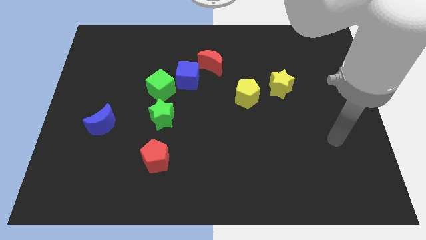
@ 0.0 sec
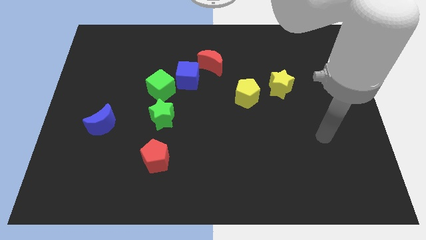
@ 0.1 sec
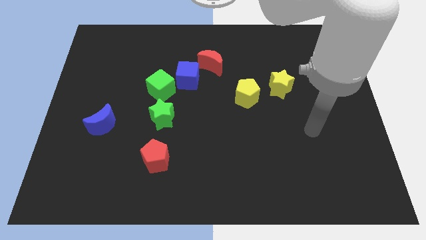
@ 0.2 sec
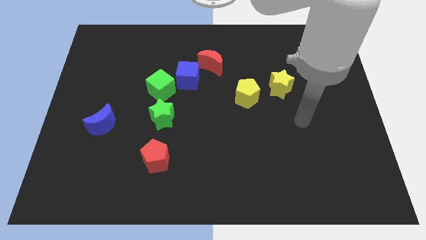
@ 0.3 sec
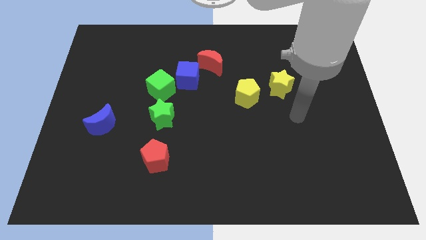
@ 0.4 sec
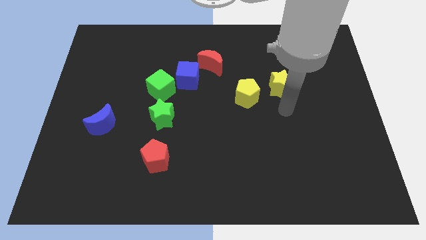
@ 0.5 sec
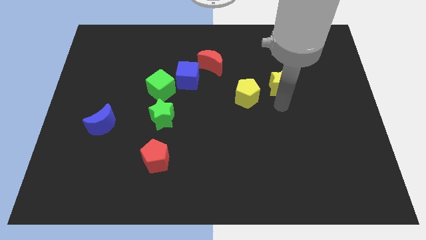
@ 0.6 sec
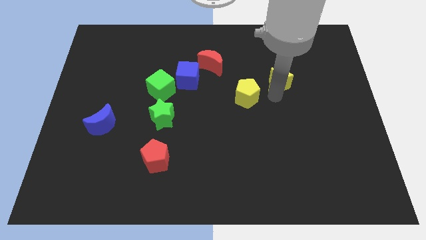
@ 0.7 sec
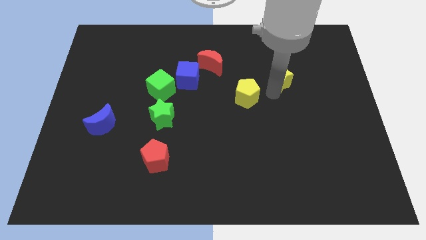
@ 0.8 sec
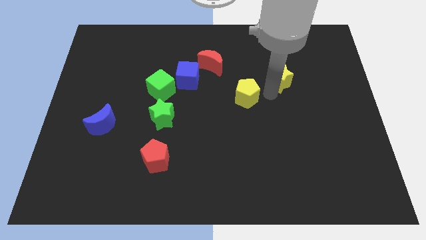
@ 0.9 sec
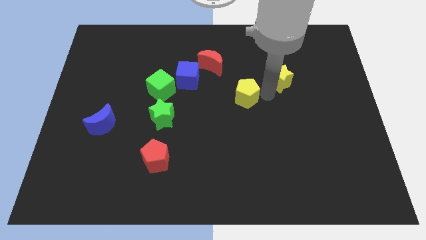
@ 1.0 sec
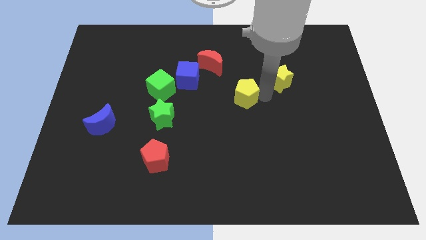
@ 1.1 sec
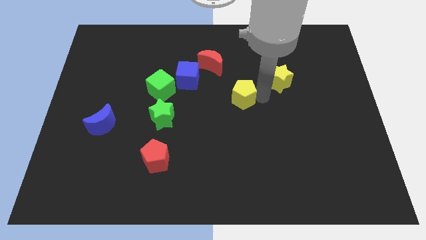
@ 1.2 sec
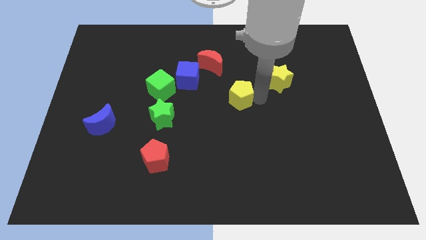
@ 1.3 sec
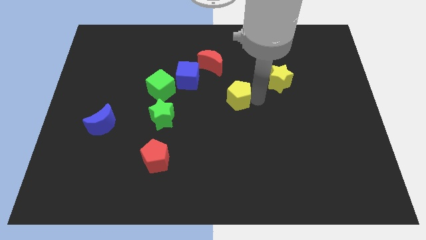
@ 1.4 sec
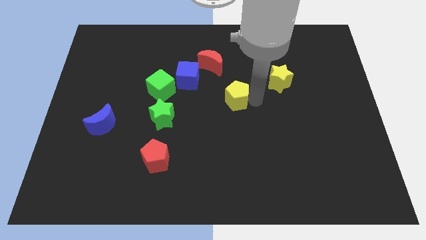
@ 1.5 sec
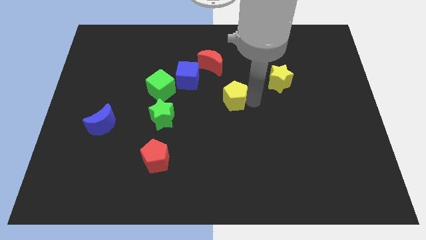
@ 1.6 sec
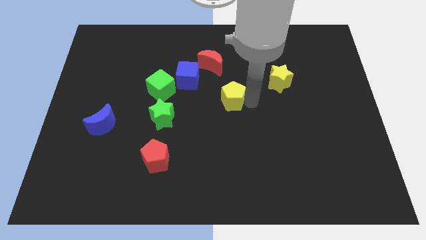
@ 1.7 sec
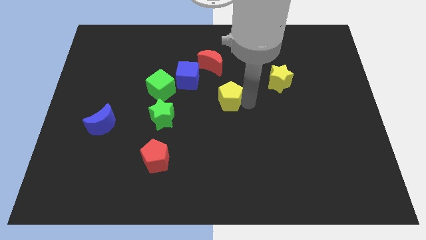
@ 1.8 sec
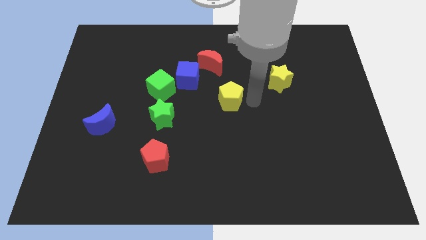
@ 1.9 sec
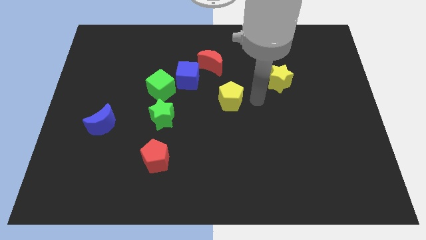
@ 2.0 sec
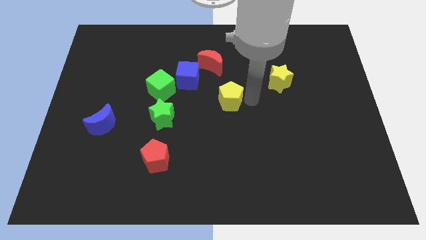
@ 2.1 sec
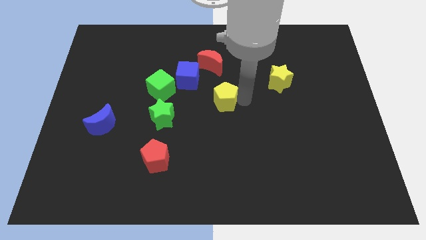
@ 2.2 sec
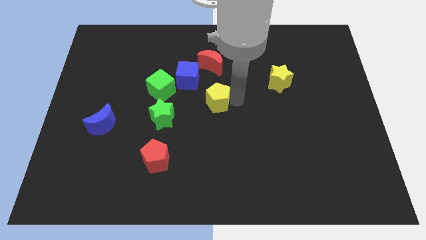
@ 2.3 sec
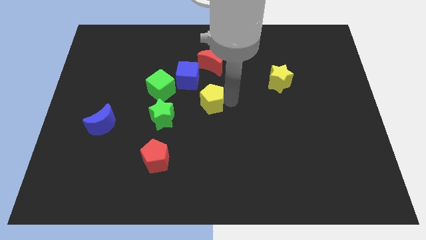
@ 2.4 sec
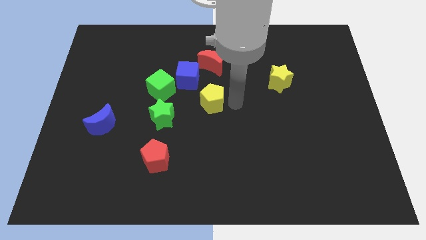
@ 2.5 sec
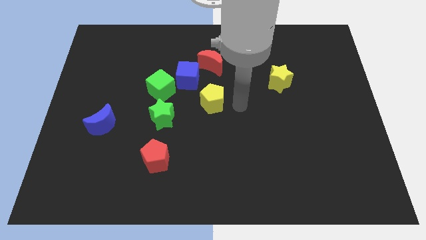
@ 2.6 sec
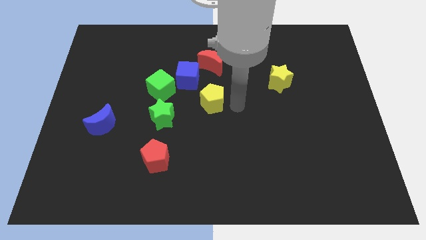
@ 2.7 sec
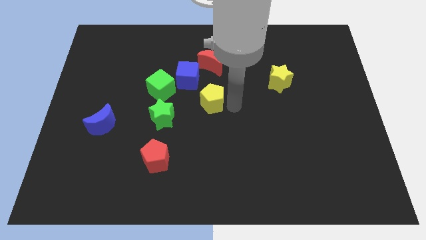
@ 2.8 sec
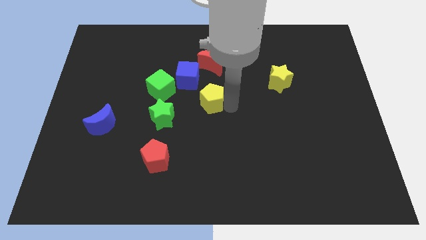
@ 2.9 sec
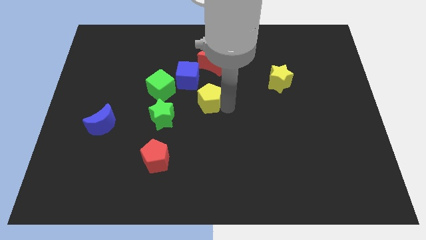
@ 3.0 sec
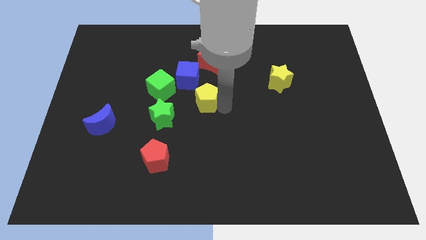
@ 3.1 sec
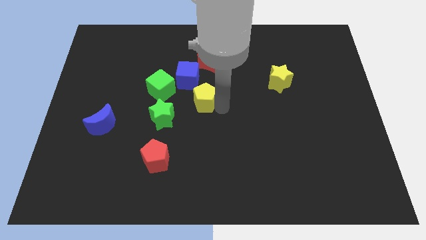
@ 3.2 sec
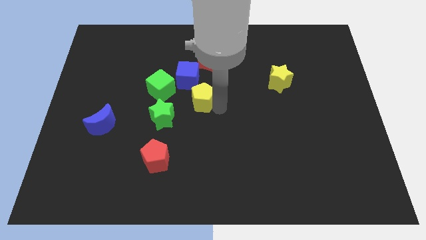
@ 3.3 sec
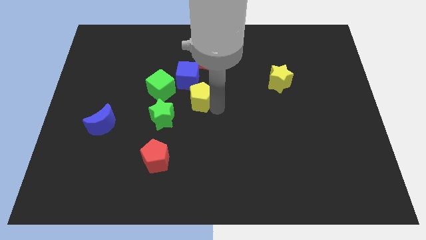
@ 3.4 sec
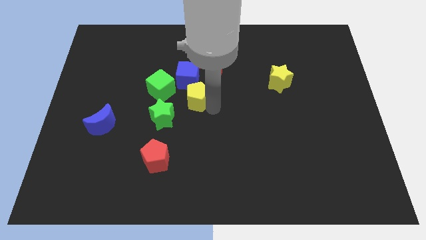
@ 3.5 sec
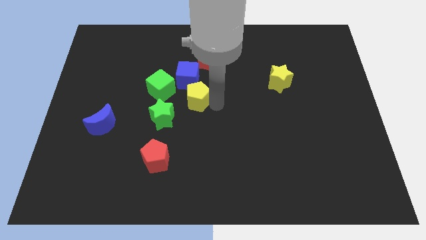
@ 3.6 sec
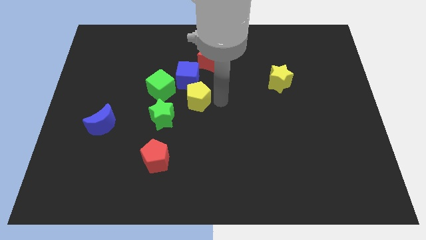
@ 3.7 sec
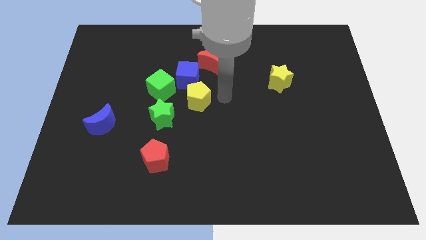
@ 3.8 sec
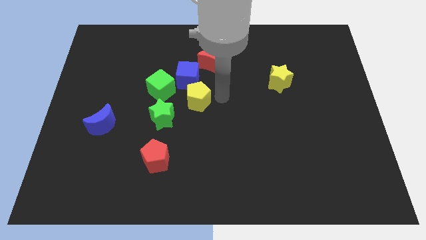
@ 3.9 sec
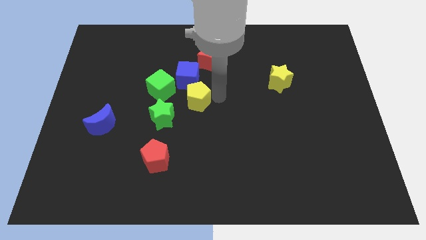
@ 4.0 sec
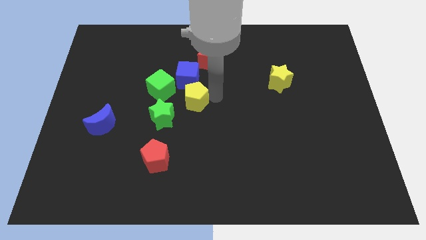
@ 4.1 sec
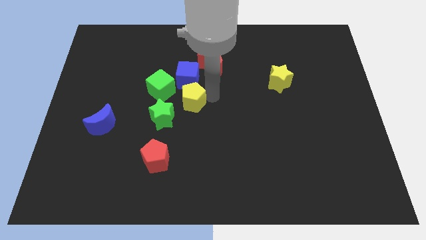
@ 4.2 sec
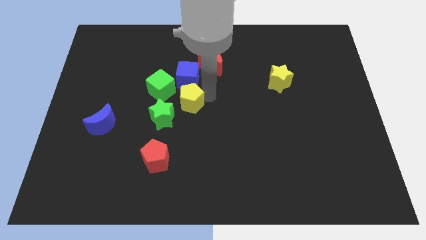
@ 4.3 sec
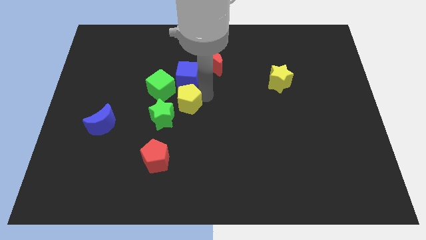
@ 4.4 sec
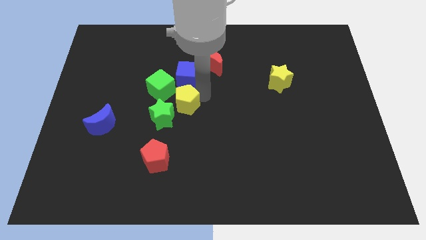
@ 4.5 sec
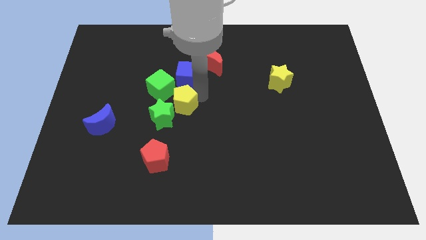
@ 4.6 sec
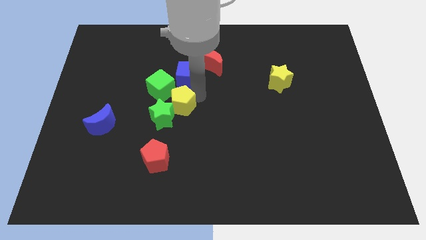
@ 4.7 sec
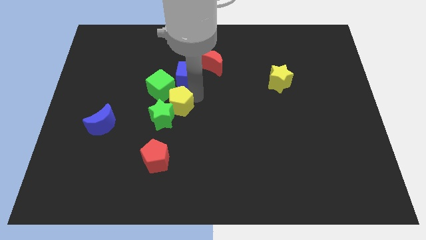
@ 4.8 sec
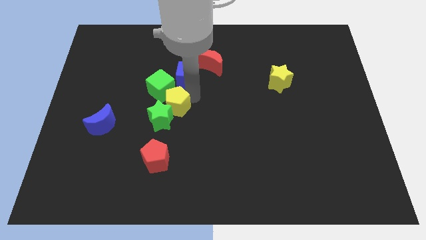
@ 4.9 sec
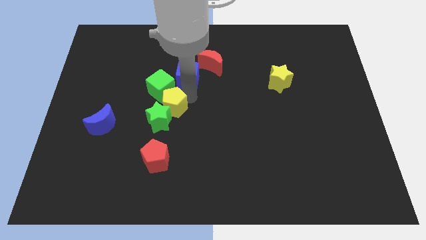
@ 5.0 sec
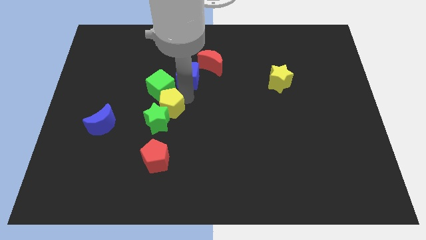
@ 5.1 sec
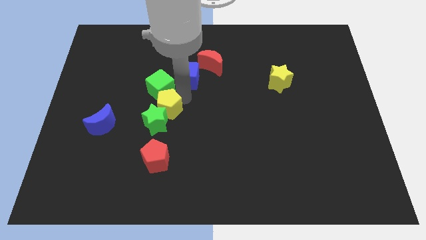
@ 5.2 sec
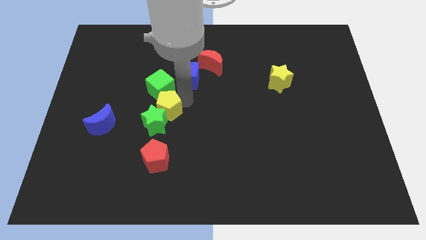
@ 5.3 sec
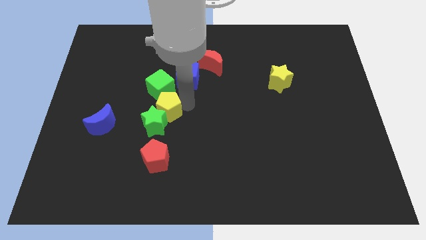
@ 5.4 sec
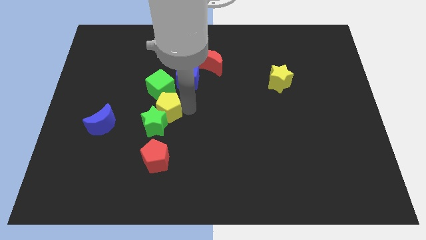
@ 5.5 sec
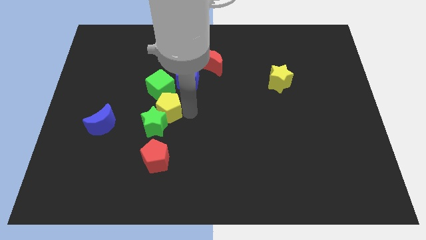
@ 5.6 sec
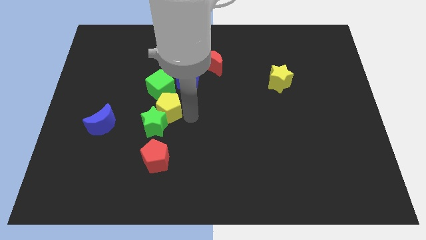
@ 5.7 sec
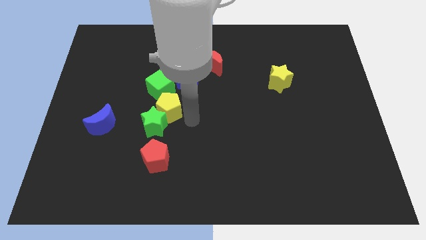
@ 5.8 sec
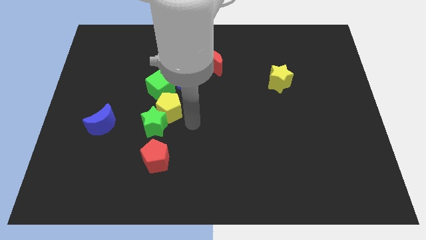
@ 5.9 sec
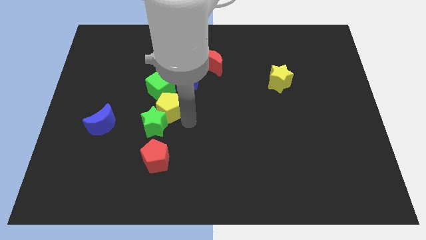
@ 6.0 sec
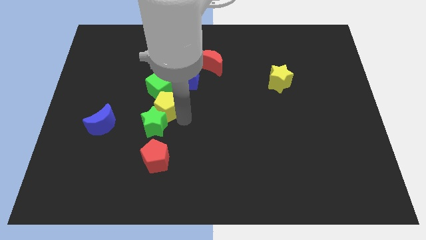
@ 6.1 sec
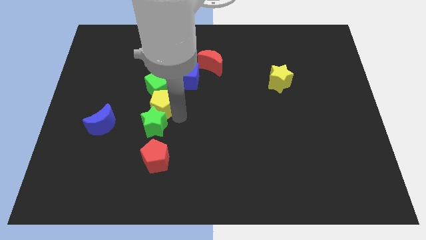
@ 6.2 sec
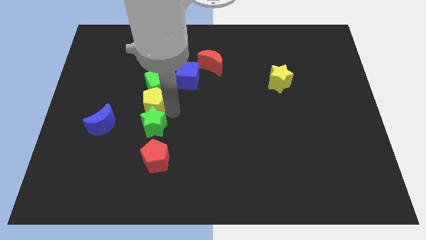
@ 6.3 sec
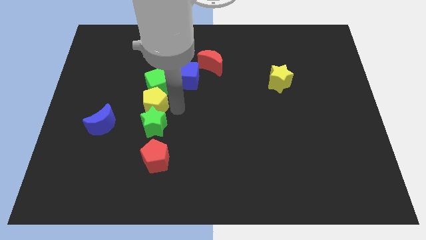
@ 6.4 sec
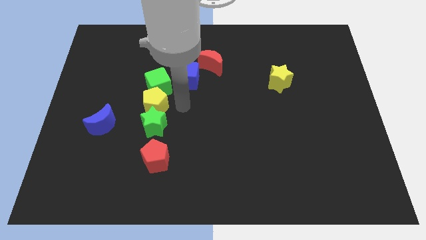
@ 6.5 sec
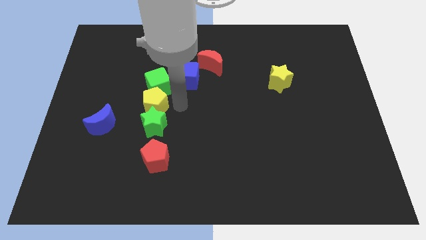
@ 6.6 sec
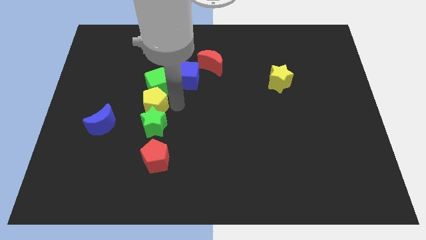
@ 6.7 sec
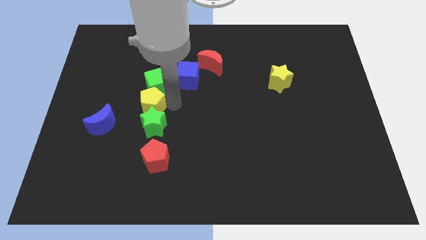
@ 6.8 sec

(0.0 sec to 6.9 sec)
move the yellow pentagon to the top right side of the blue moon
